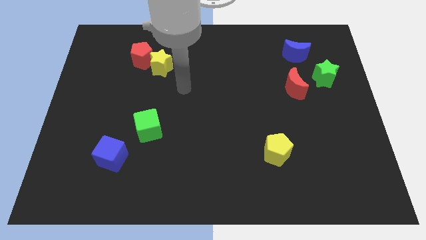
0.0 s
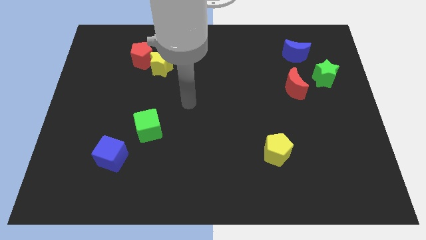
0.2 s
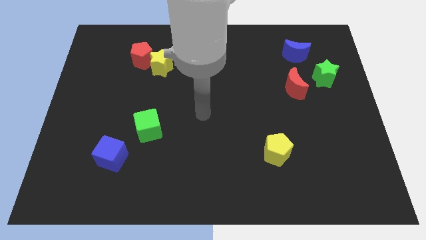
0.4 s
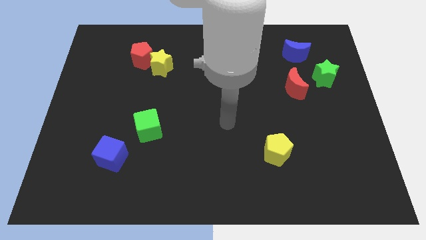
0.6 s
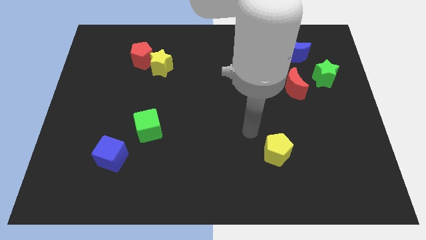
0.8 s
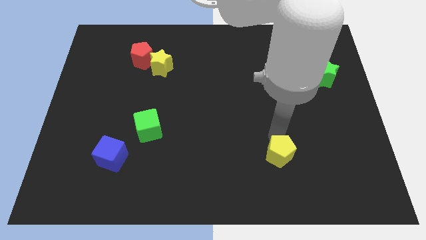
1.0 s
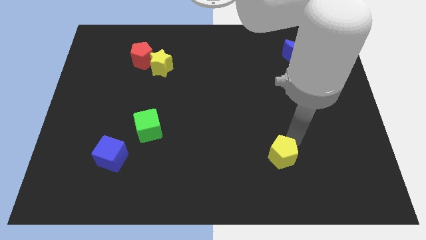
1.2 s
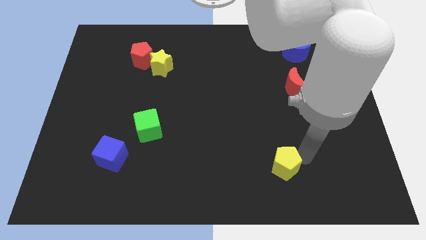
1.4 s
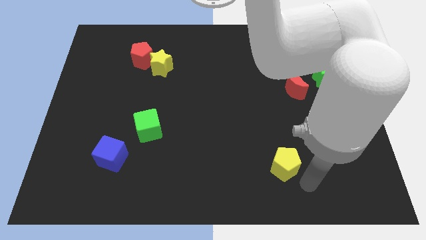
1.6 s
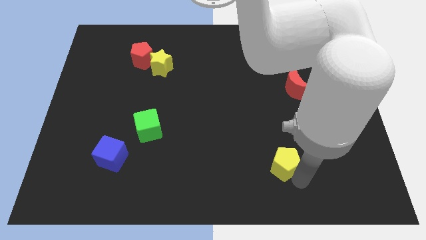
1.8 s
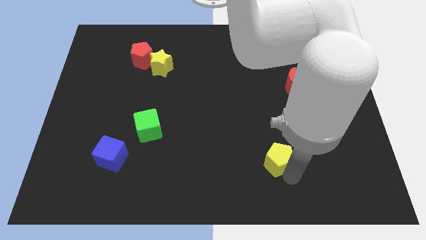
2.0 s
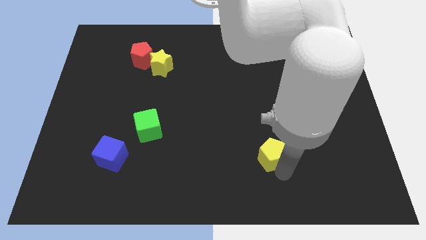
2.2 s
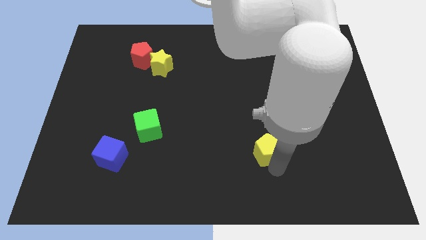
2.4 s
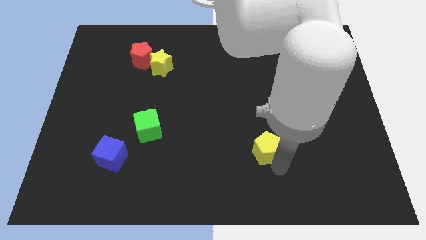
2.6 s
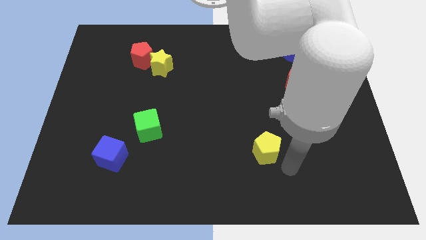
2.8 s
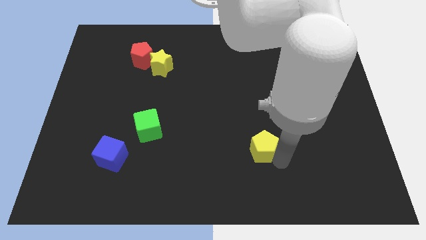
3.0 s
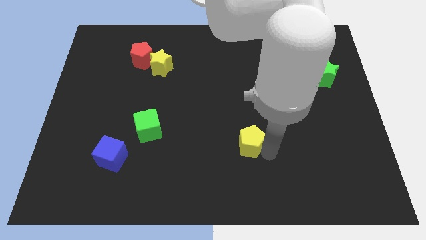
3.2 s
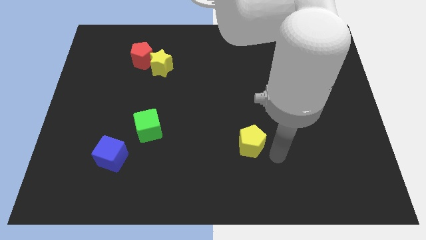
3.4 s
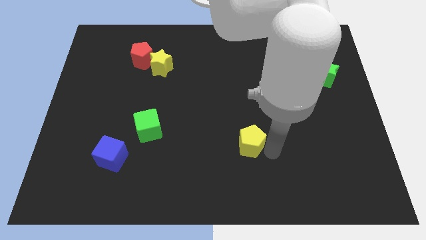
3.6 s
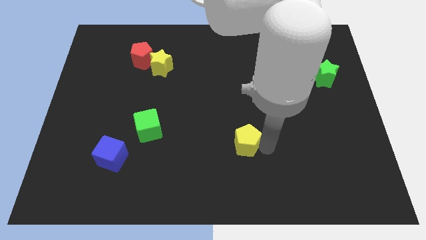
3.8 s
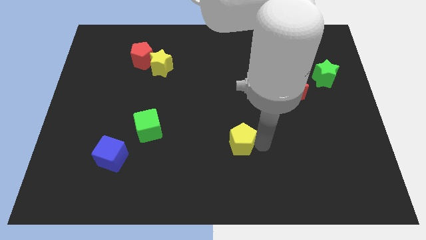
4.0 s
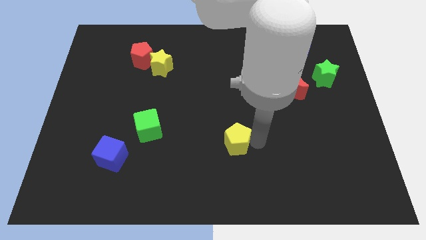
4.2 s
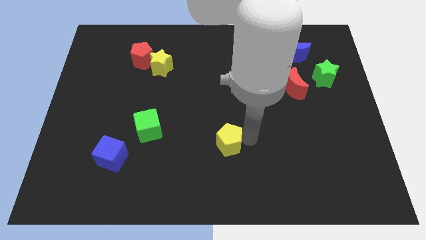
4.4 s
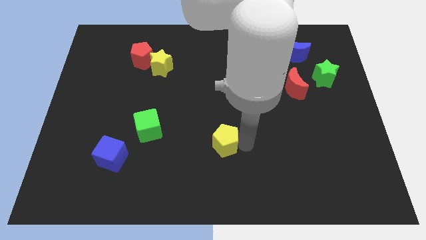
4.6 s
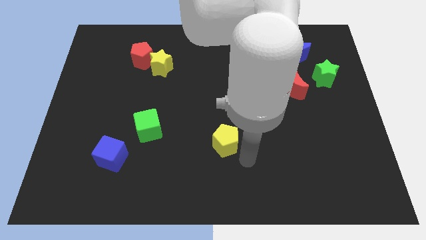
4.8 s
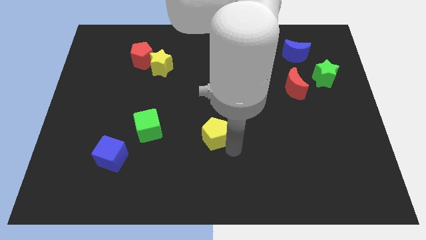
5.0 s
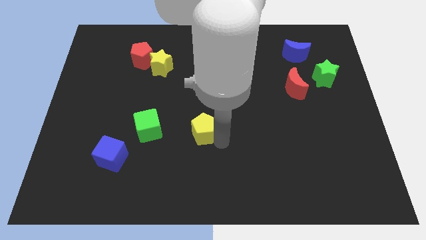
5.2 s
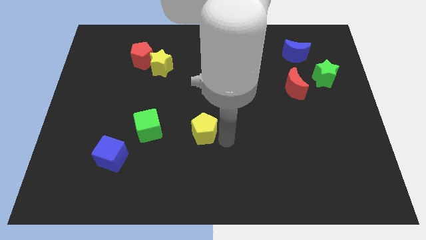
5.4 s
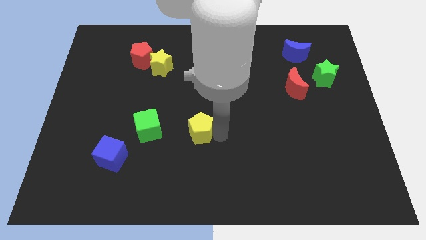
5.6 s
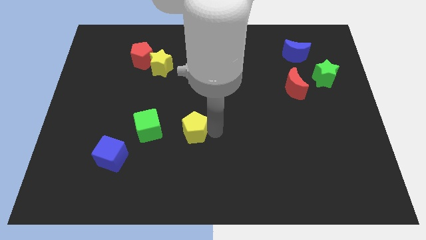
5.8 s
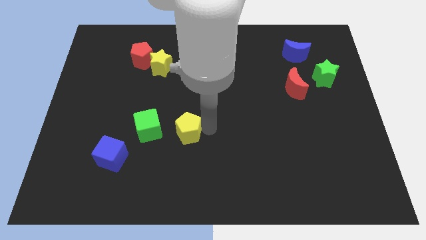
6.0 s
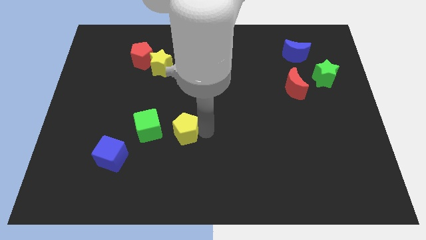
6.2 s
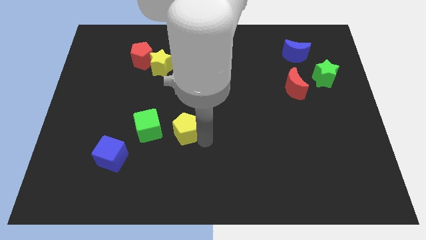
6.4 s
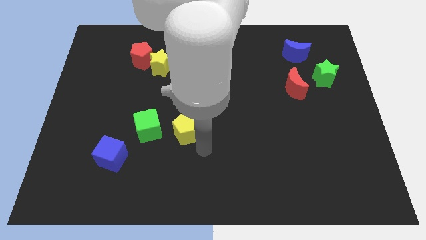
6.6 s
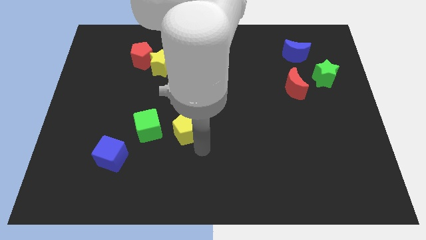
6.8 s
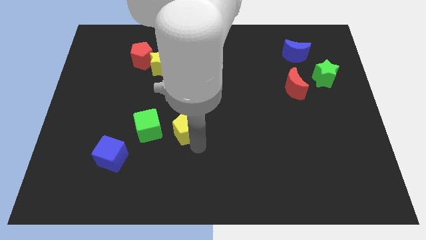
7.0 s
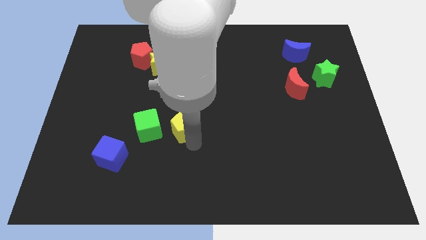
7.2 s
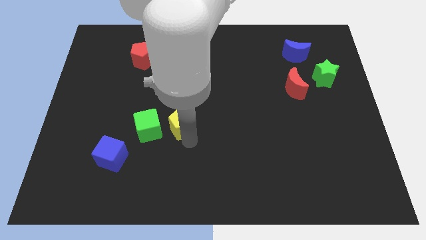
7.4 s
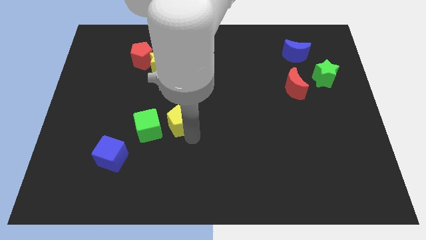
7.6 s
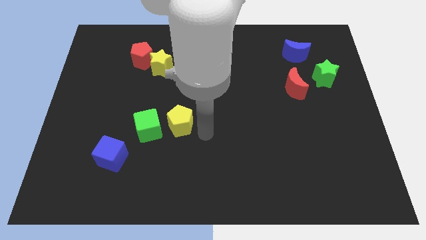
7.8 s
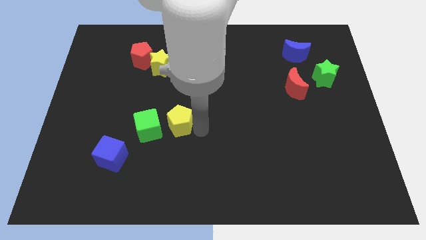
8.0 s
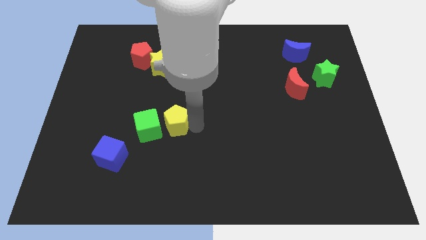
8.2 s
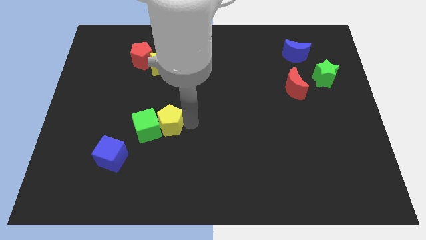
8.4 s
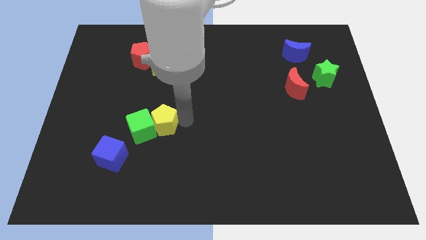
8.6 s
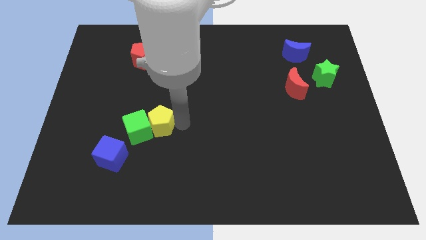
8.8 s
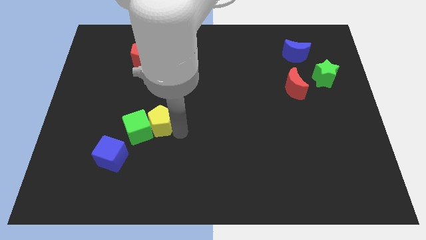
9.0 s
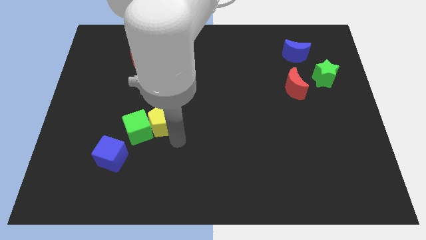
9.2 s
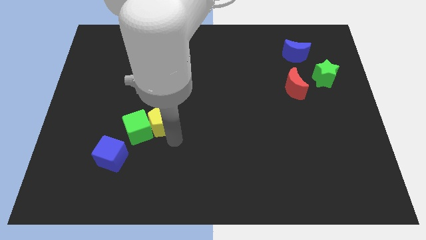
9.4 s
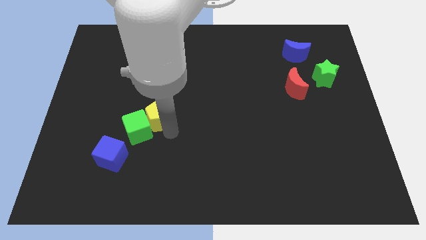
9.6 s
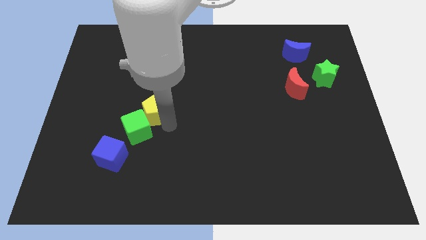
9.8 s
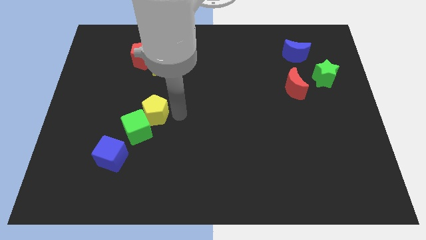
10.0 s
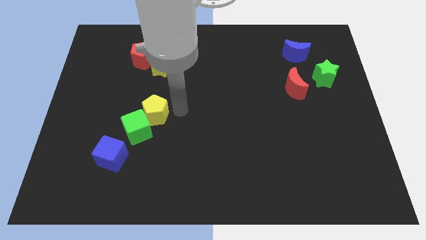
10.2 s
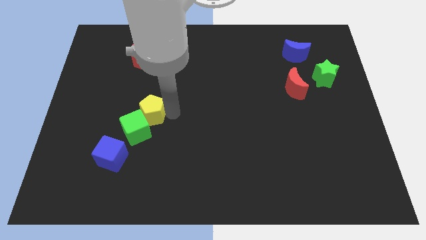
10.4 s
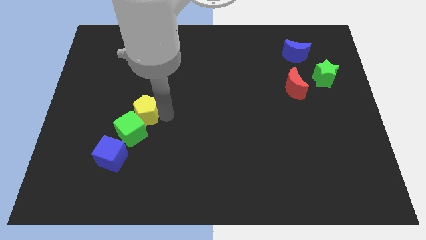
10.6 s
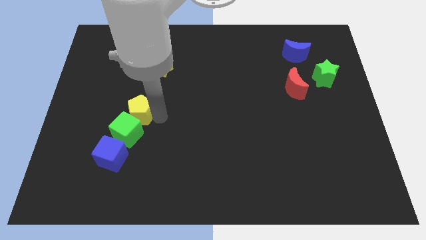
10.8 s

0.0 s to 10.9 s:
put the yellow pentagon to the top side of the blue cube

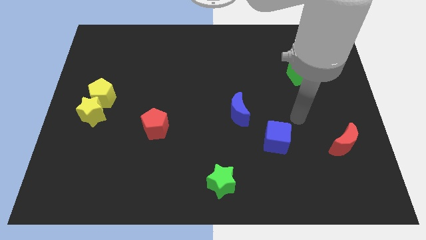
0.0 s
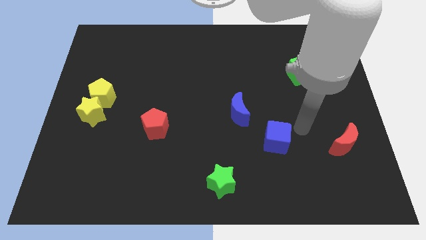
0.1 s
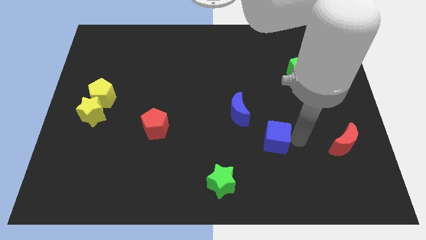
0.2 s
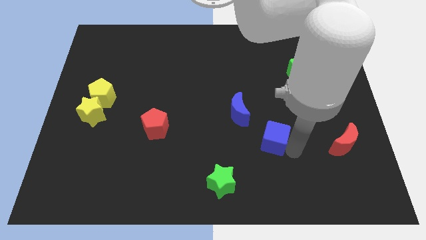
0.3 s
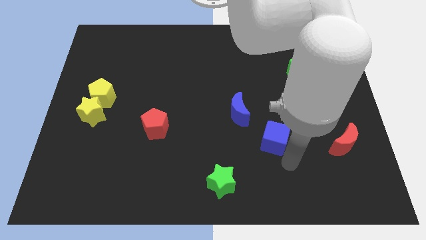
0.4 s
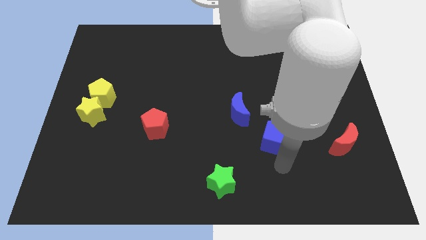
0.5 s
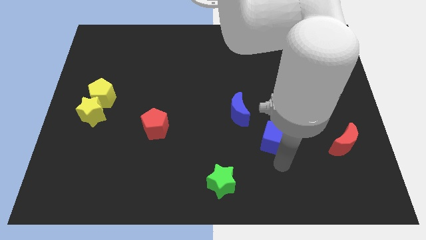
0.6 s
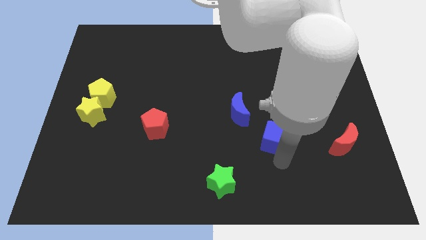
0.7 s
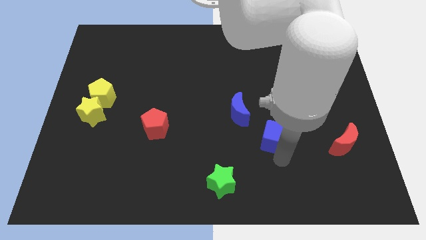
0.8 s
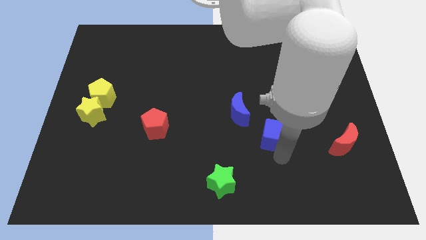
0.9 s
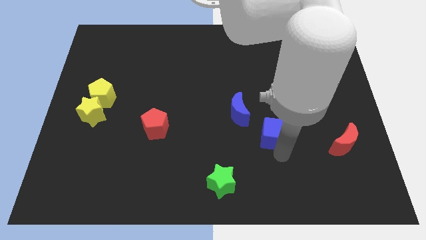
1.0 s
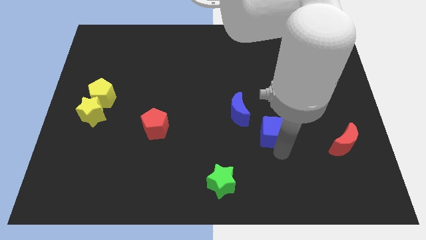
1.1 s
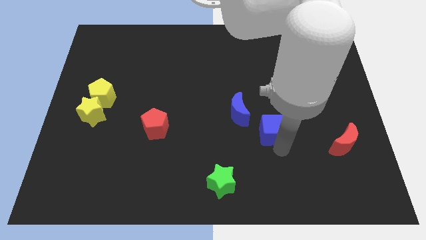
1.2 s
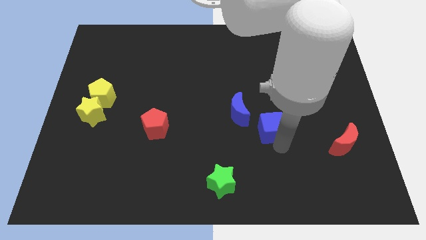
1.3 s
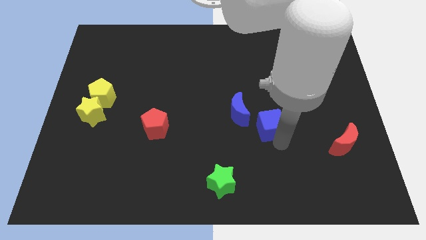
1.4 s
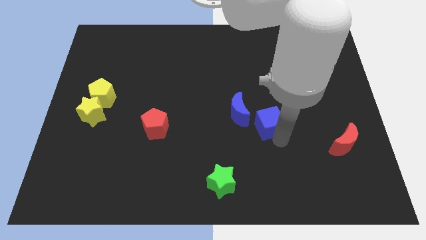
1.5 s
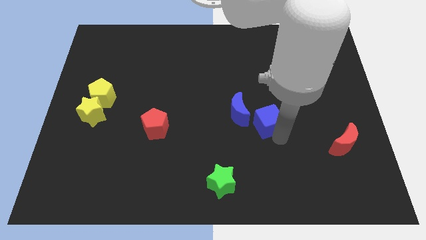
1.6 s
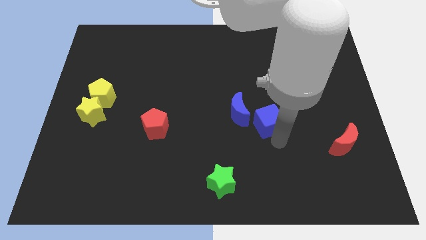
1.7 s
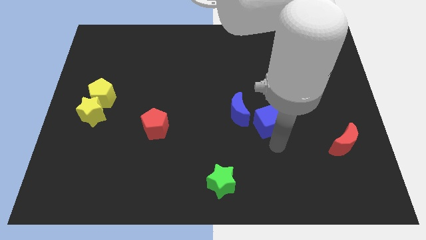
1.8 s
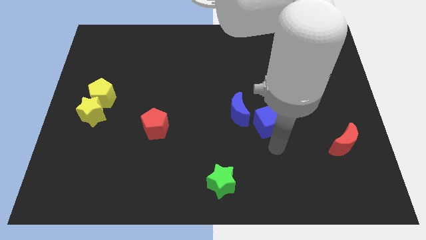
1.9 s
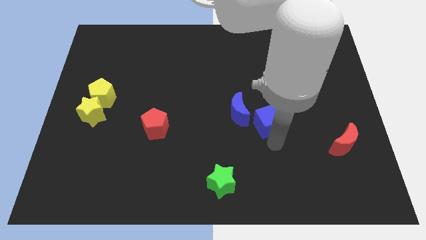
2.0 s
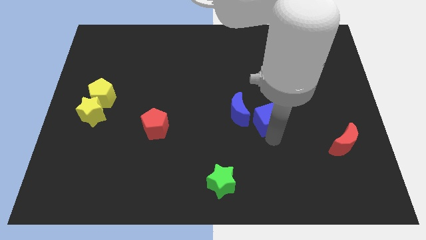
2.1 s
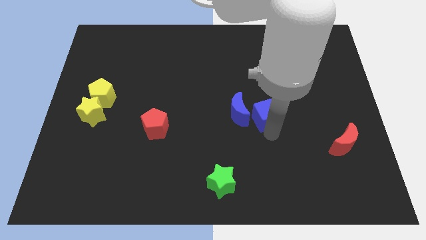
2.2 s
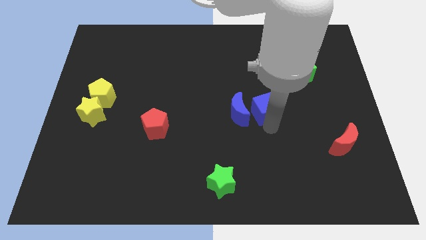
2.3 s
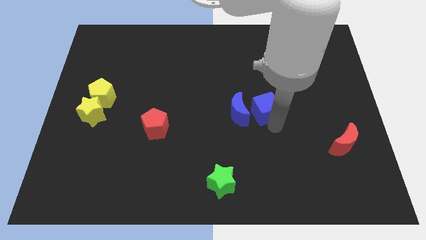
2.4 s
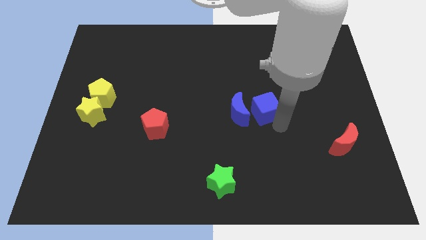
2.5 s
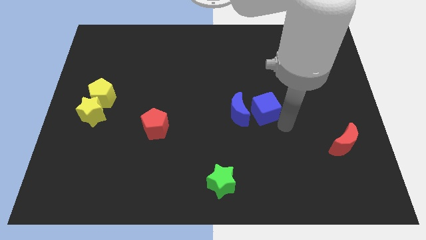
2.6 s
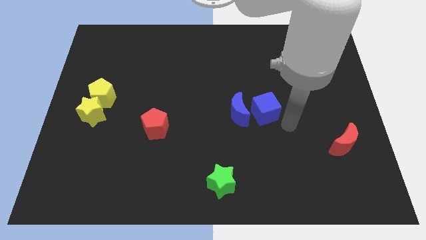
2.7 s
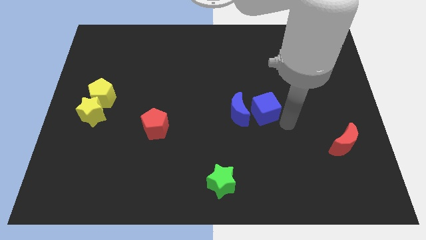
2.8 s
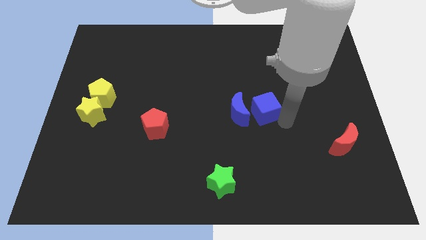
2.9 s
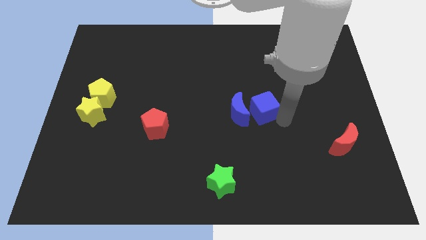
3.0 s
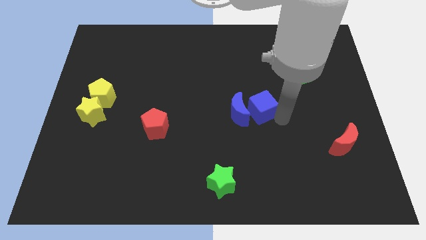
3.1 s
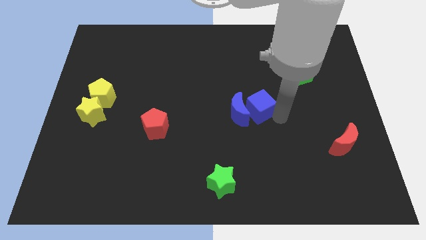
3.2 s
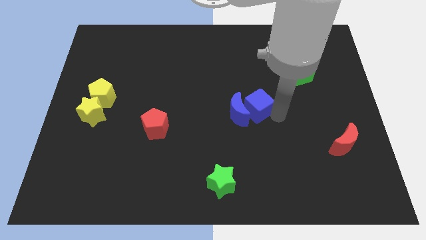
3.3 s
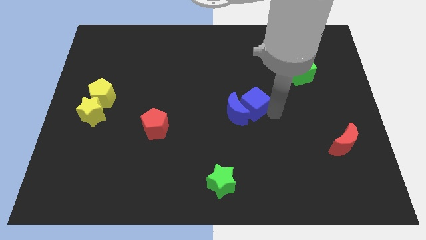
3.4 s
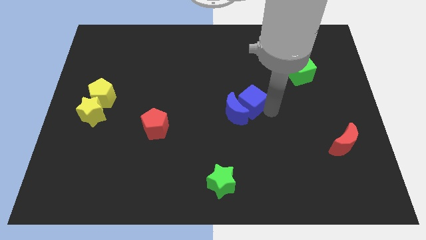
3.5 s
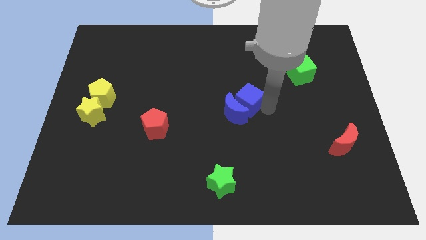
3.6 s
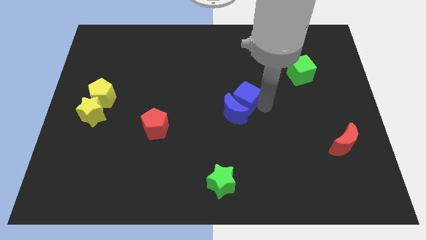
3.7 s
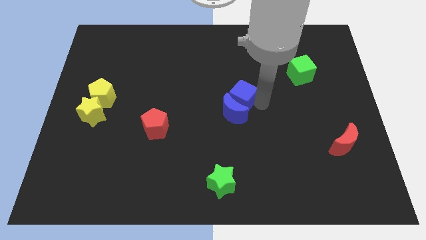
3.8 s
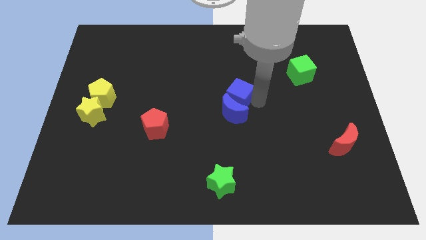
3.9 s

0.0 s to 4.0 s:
push the blue cube to the top left of the blue moon
